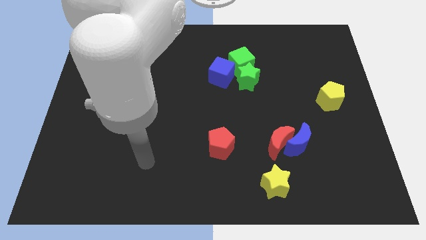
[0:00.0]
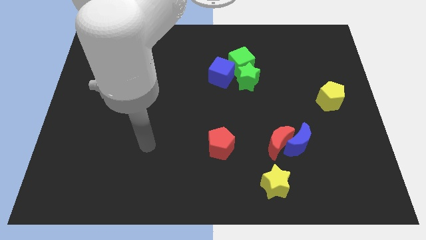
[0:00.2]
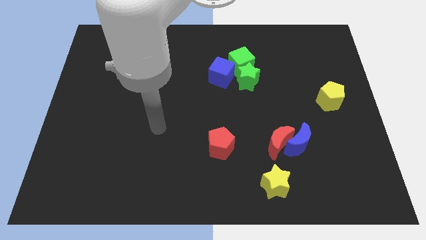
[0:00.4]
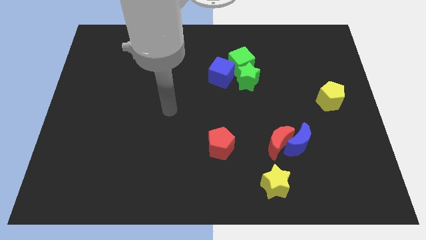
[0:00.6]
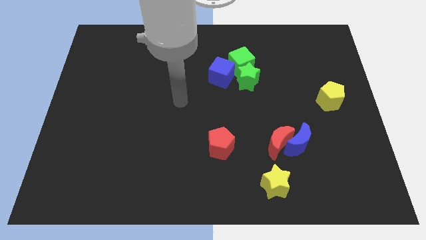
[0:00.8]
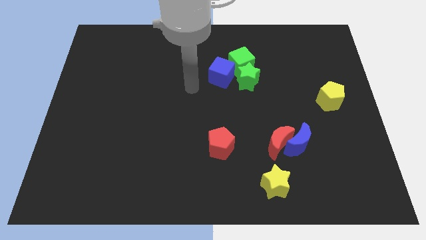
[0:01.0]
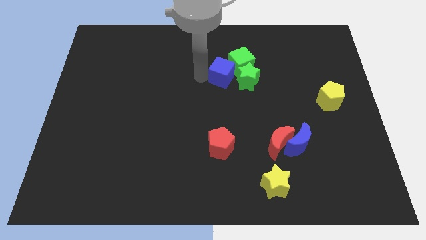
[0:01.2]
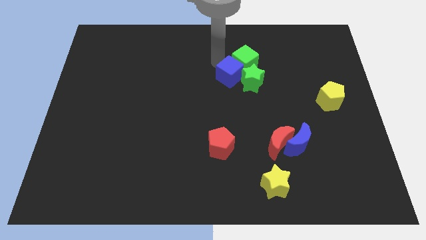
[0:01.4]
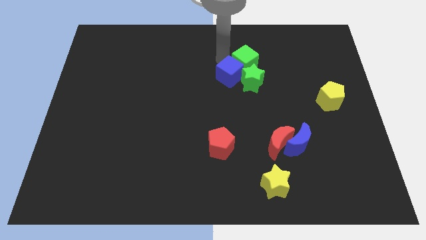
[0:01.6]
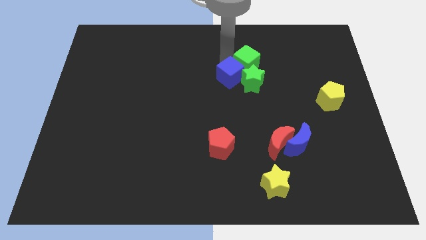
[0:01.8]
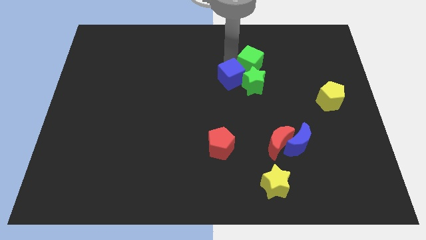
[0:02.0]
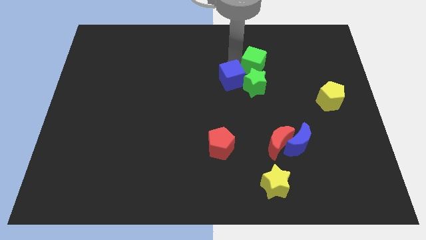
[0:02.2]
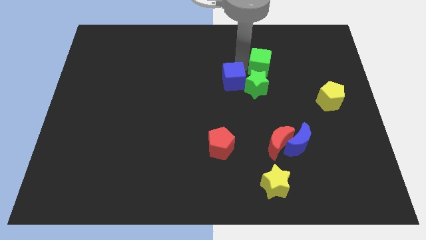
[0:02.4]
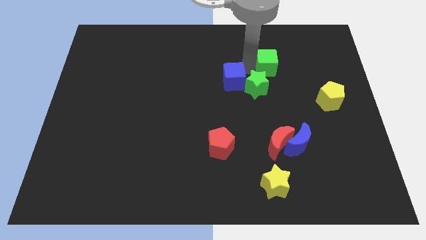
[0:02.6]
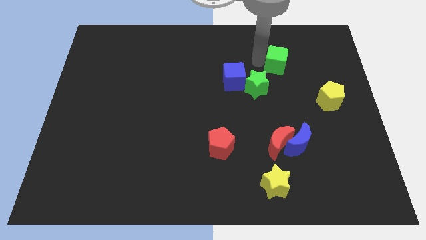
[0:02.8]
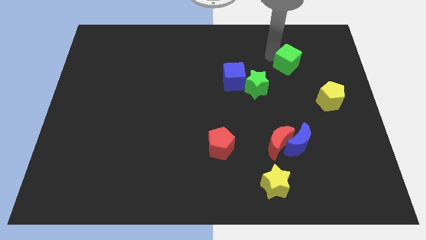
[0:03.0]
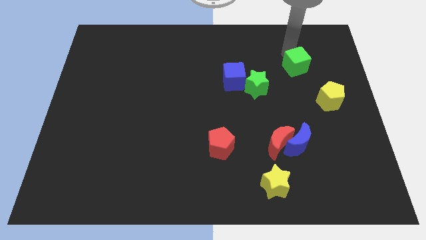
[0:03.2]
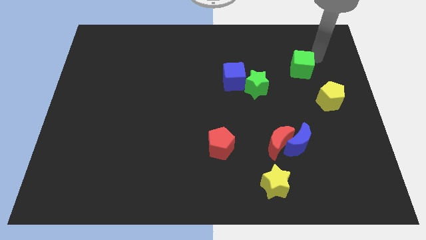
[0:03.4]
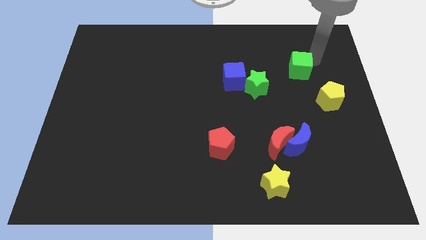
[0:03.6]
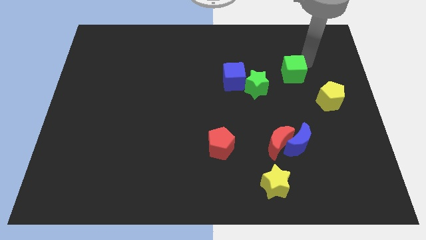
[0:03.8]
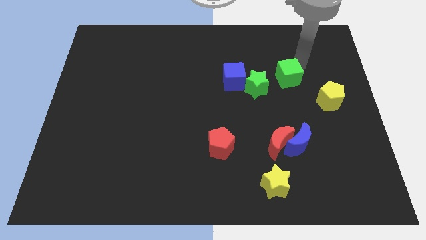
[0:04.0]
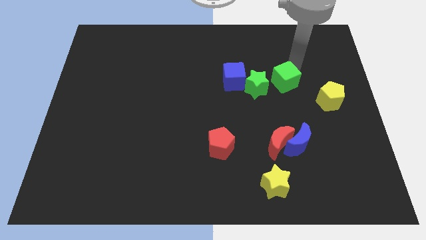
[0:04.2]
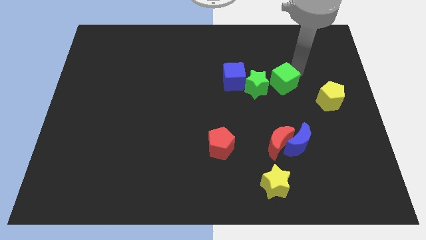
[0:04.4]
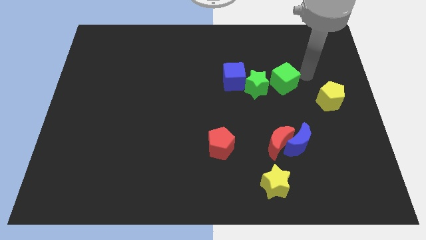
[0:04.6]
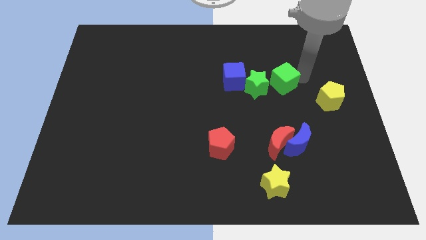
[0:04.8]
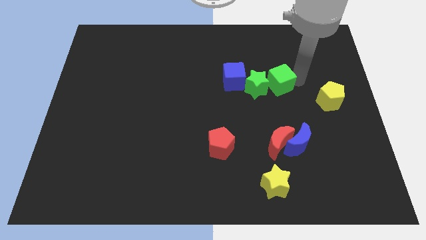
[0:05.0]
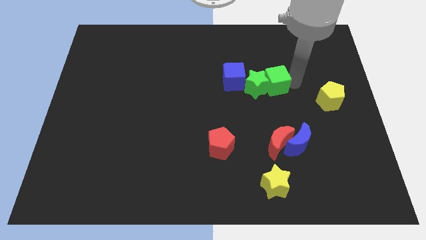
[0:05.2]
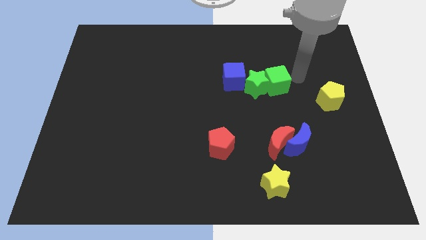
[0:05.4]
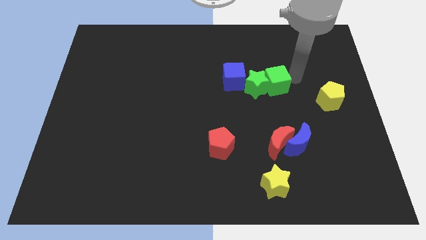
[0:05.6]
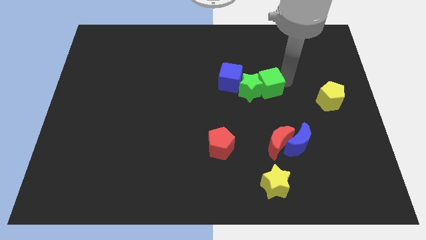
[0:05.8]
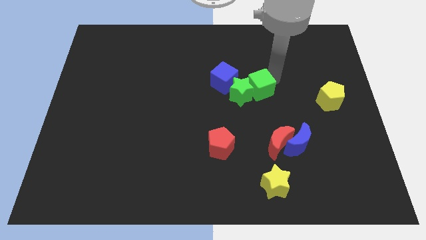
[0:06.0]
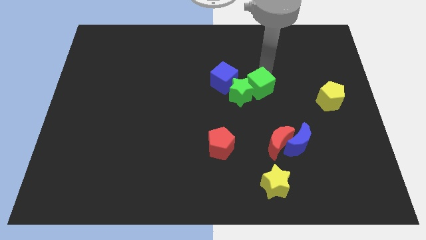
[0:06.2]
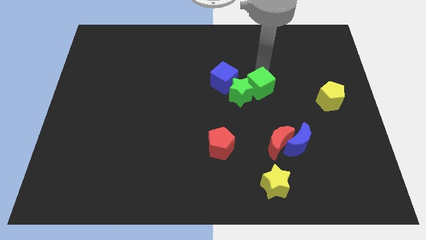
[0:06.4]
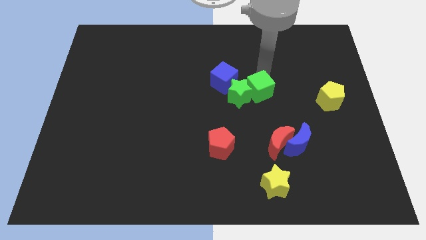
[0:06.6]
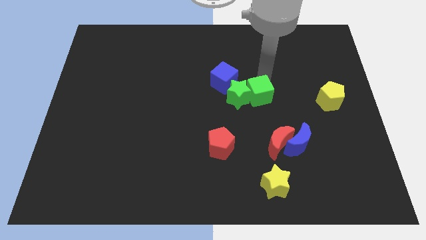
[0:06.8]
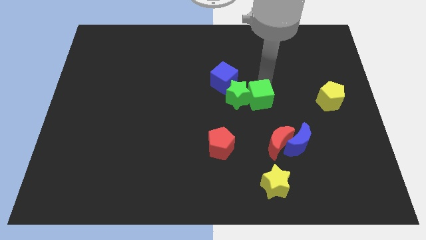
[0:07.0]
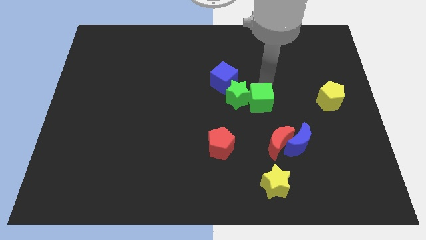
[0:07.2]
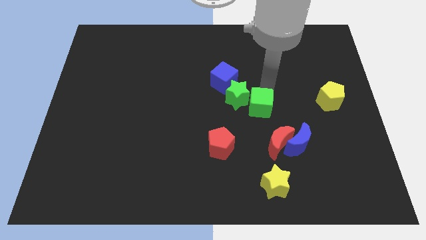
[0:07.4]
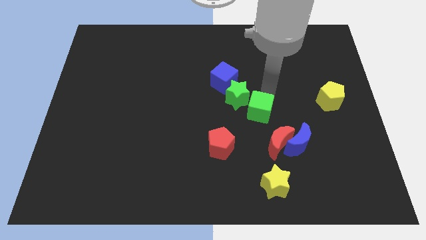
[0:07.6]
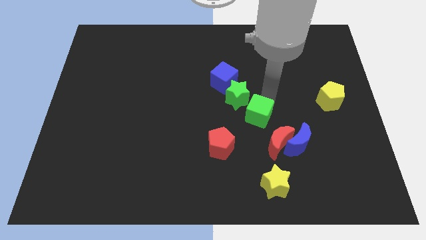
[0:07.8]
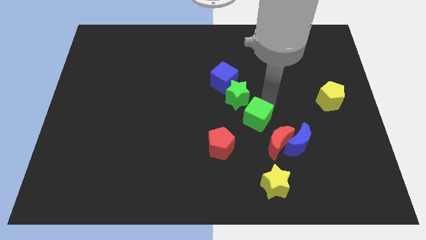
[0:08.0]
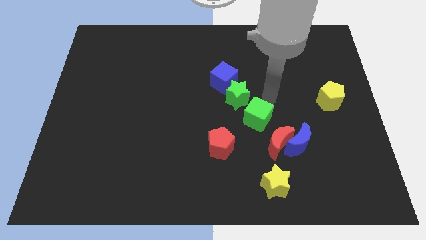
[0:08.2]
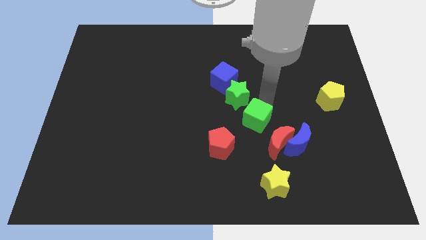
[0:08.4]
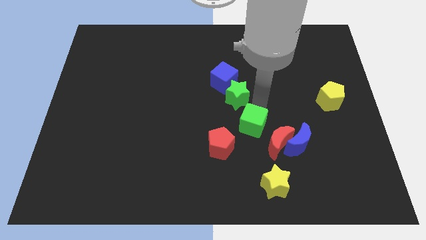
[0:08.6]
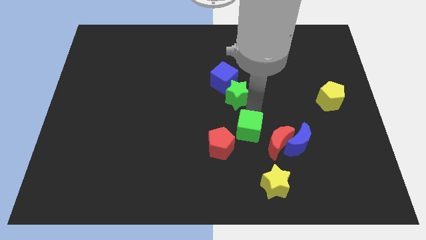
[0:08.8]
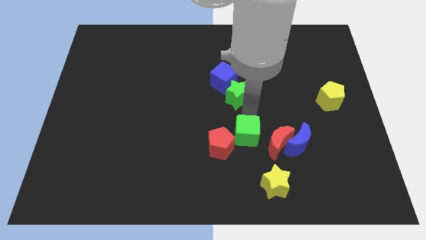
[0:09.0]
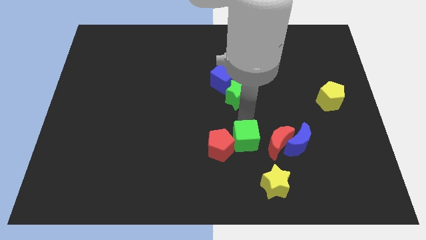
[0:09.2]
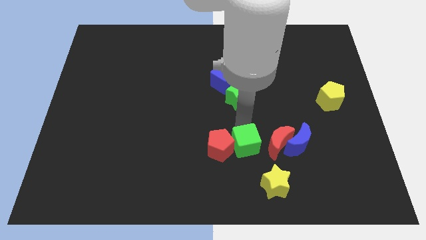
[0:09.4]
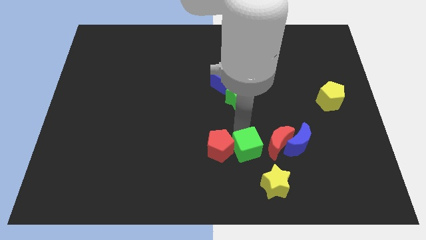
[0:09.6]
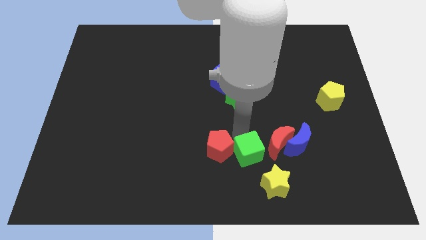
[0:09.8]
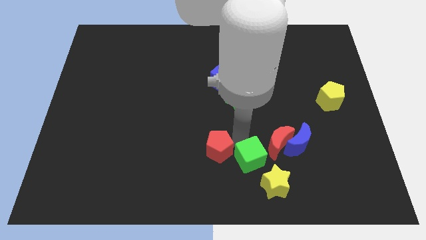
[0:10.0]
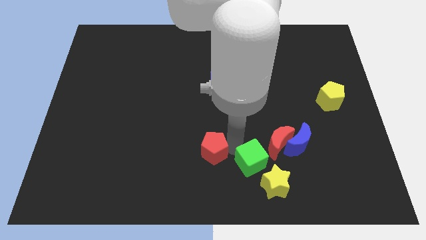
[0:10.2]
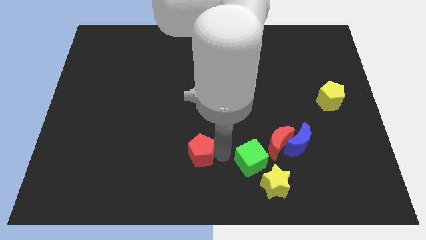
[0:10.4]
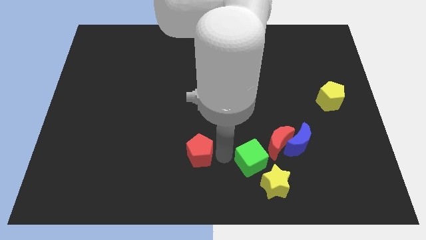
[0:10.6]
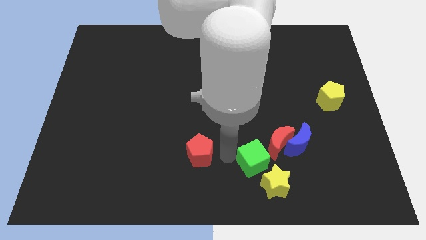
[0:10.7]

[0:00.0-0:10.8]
put the green cube to the bottom left side of the blue moon
